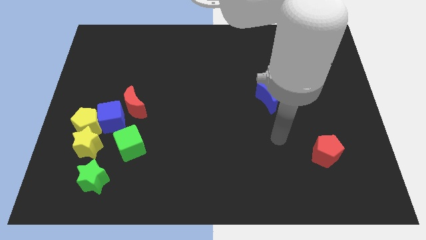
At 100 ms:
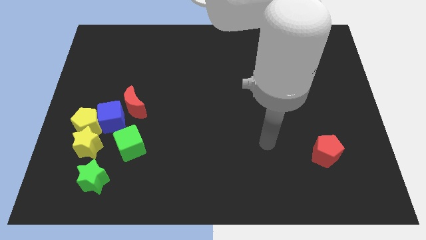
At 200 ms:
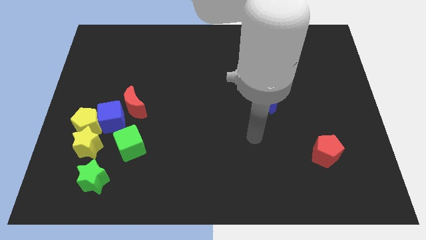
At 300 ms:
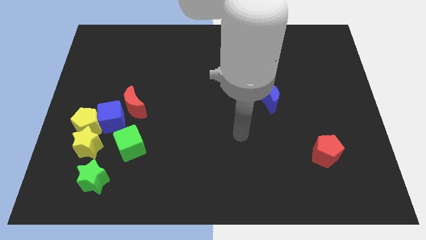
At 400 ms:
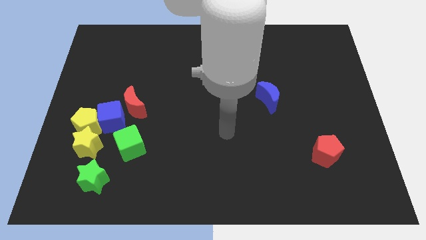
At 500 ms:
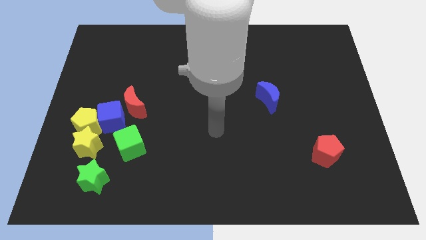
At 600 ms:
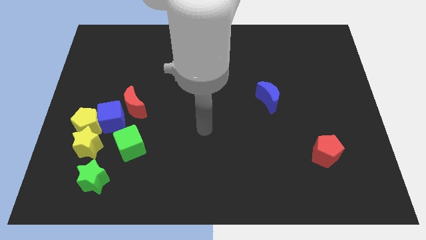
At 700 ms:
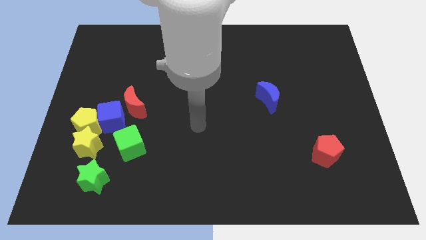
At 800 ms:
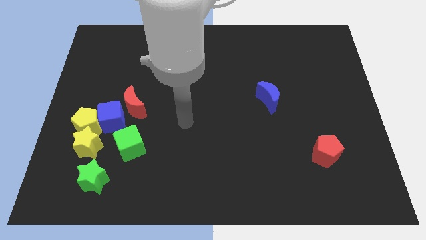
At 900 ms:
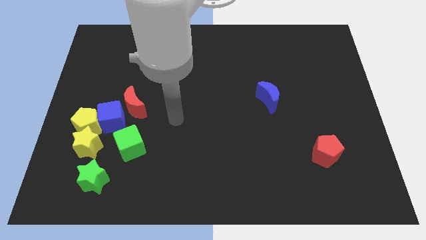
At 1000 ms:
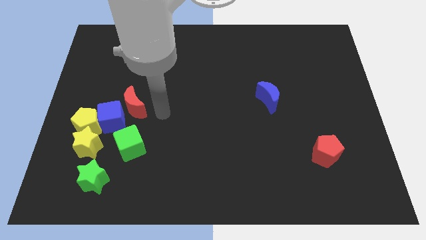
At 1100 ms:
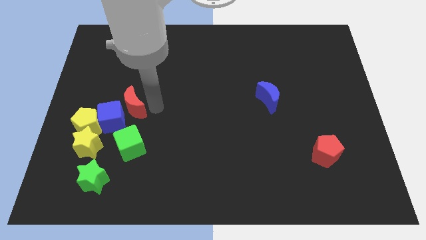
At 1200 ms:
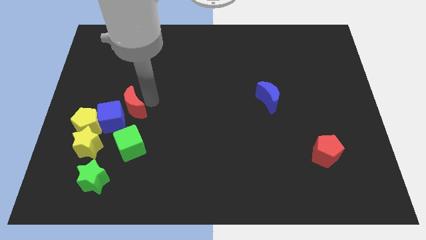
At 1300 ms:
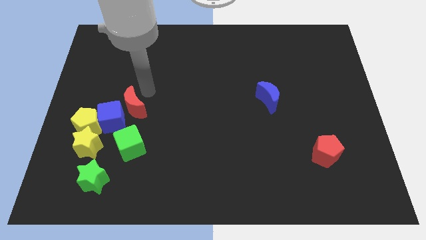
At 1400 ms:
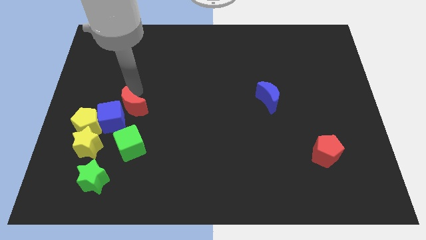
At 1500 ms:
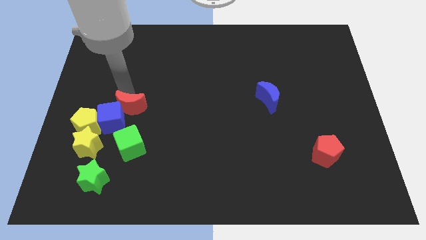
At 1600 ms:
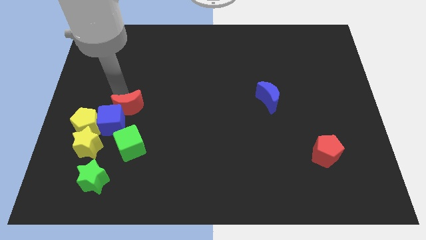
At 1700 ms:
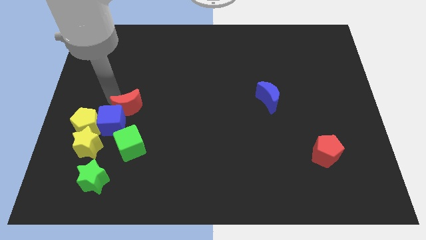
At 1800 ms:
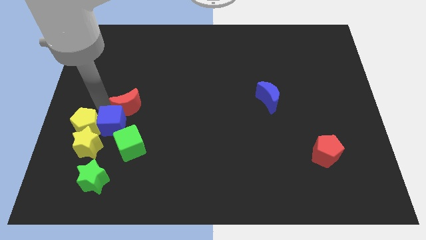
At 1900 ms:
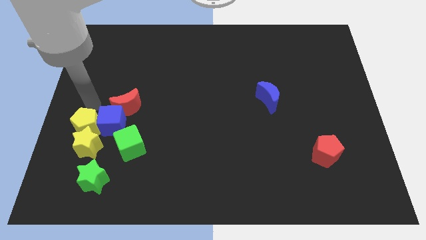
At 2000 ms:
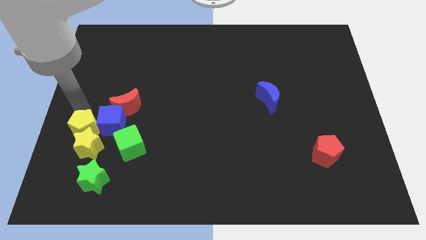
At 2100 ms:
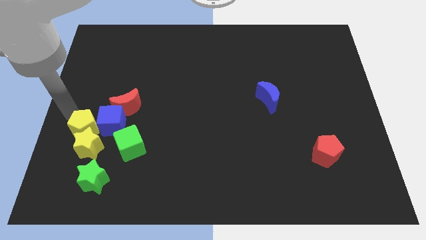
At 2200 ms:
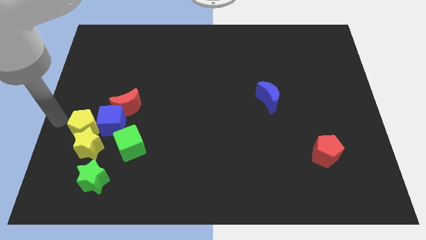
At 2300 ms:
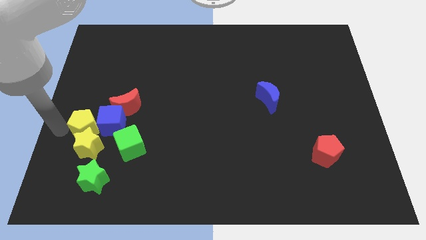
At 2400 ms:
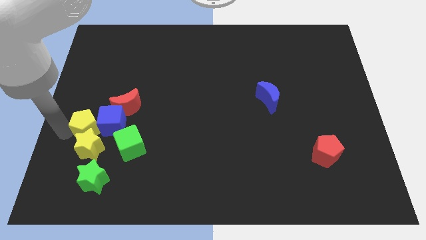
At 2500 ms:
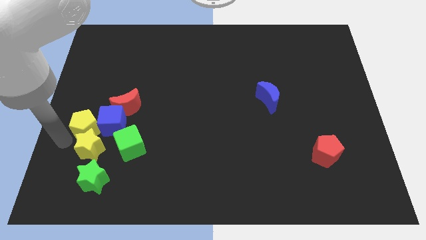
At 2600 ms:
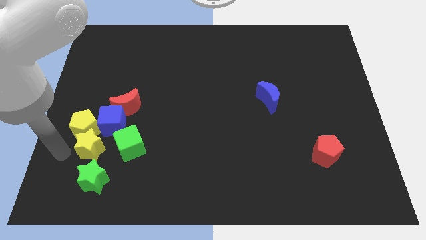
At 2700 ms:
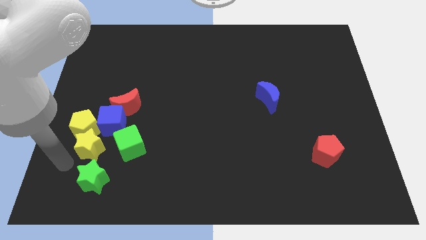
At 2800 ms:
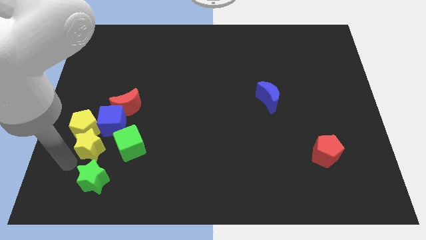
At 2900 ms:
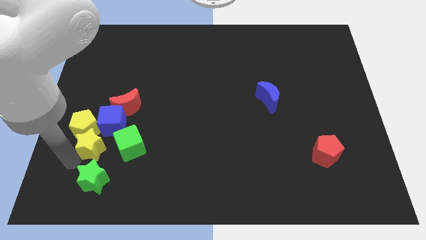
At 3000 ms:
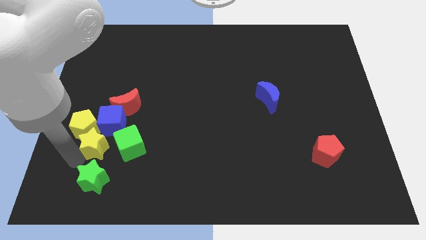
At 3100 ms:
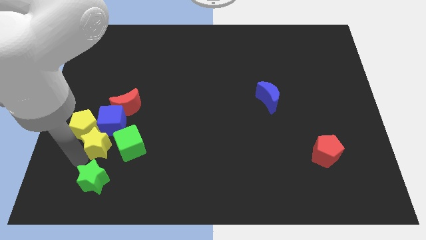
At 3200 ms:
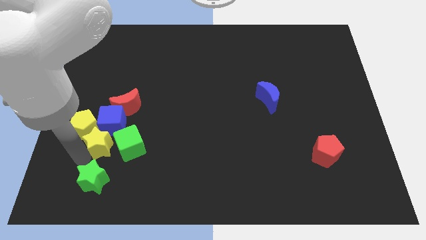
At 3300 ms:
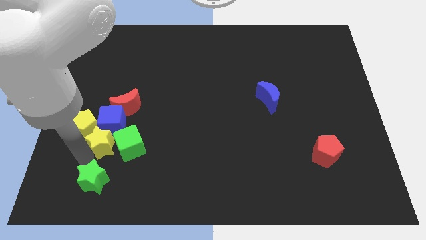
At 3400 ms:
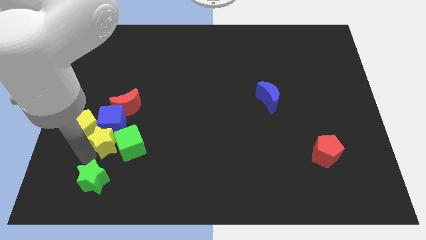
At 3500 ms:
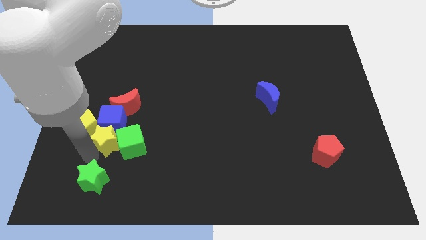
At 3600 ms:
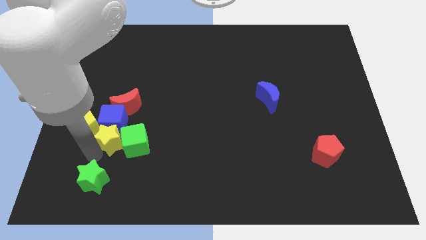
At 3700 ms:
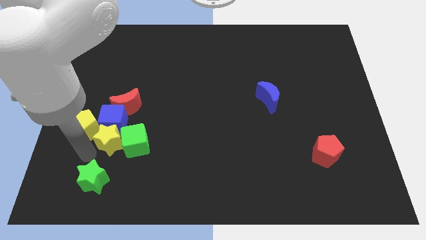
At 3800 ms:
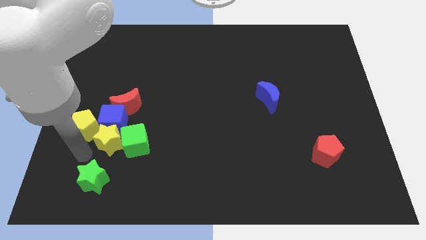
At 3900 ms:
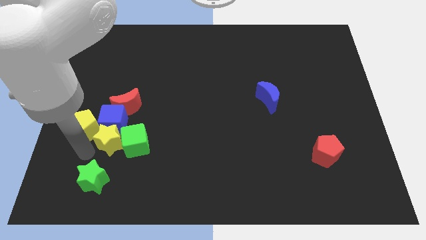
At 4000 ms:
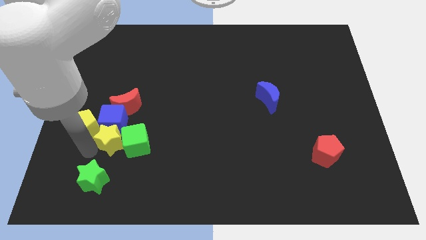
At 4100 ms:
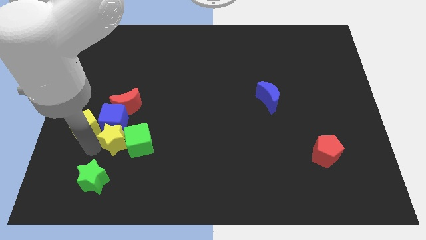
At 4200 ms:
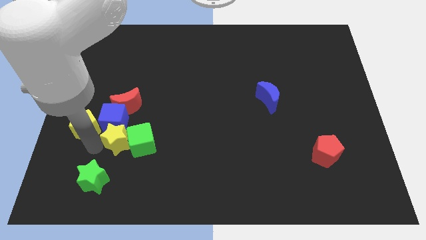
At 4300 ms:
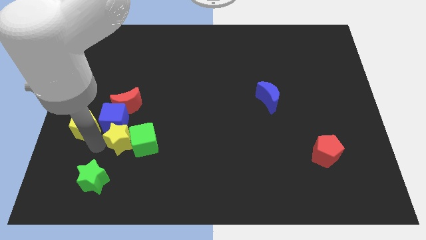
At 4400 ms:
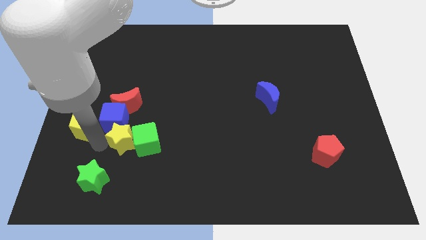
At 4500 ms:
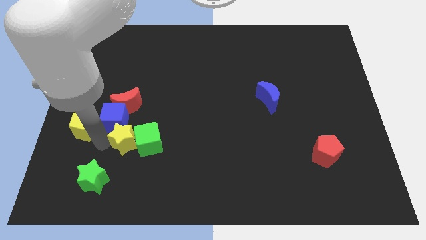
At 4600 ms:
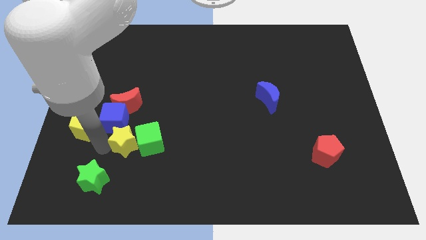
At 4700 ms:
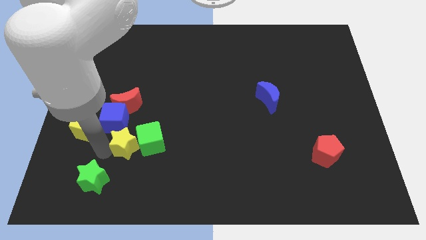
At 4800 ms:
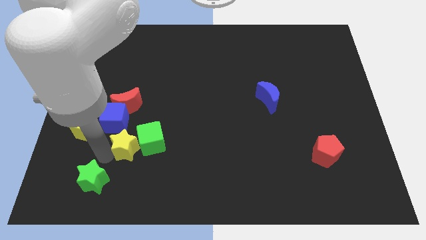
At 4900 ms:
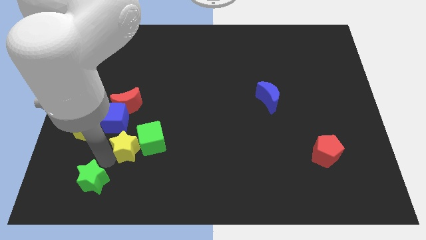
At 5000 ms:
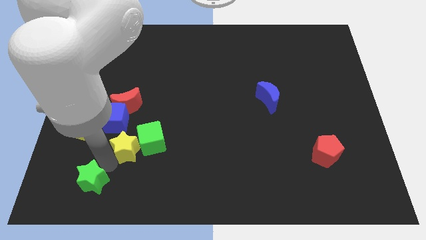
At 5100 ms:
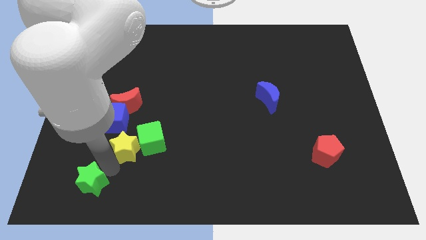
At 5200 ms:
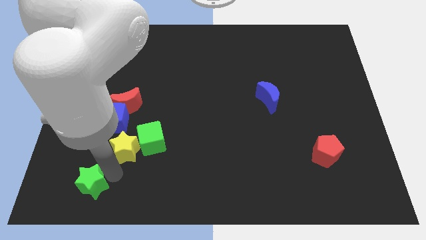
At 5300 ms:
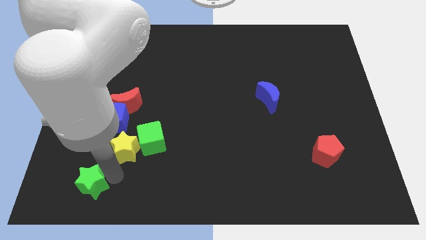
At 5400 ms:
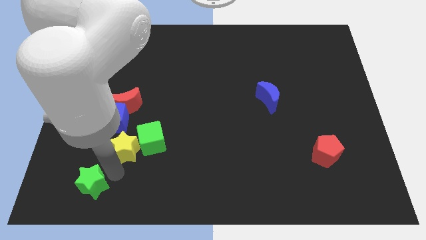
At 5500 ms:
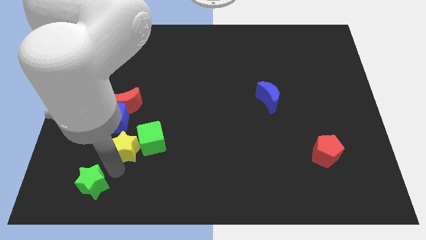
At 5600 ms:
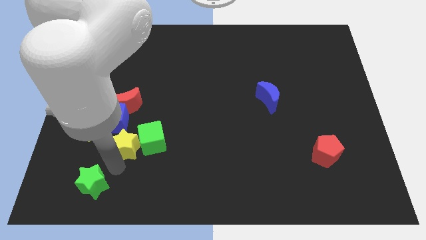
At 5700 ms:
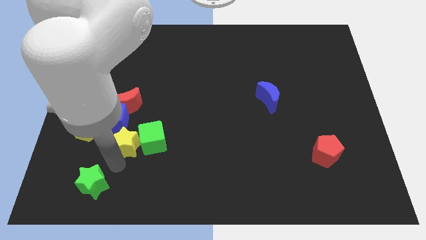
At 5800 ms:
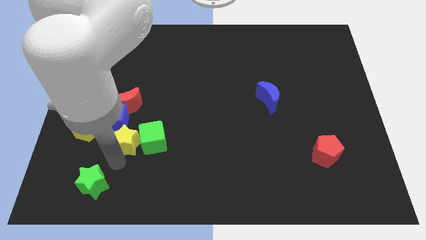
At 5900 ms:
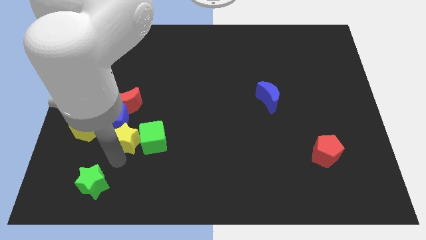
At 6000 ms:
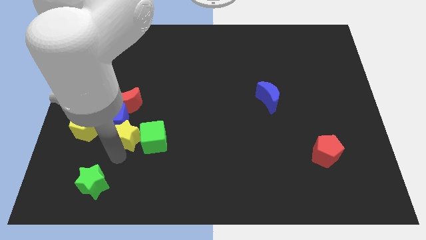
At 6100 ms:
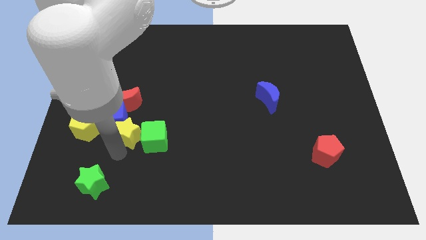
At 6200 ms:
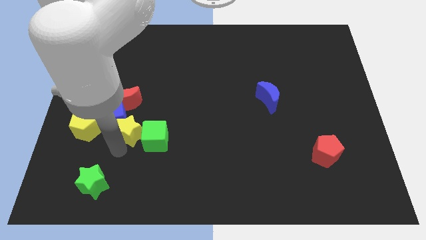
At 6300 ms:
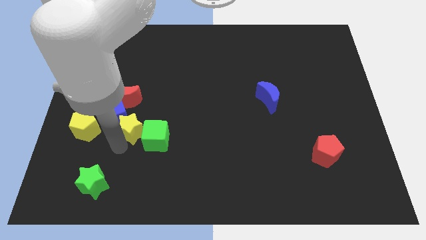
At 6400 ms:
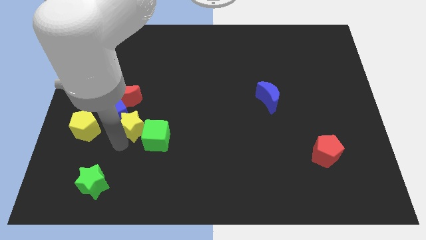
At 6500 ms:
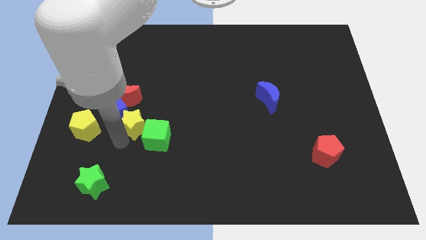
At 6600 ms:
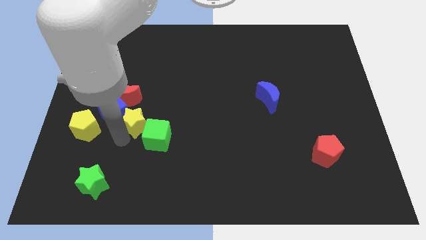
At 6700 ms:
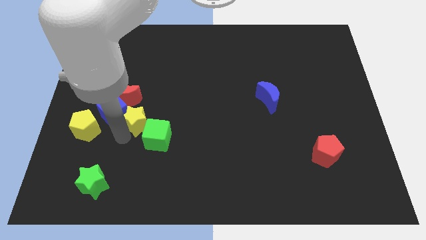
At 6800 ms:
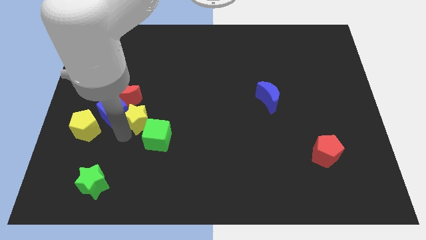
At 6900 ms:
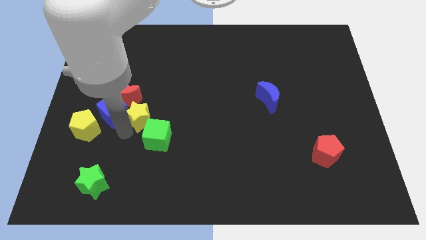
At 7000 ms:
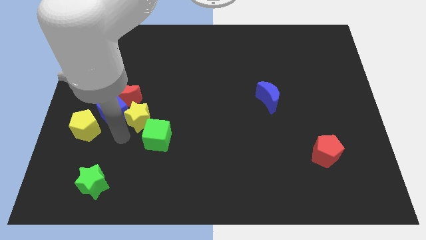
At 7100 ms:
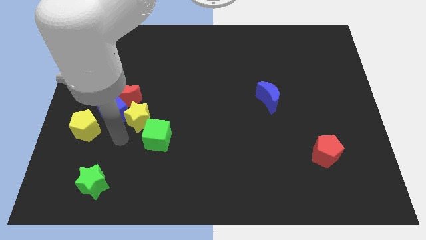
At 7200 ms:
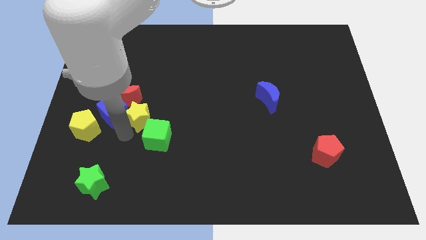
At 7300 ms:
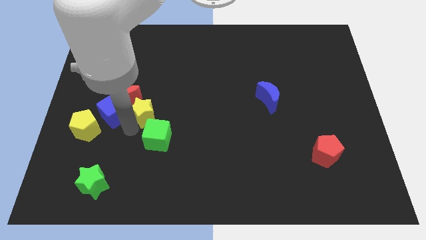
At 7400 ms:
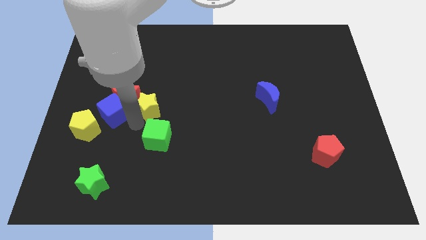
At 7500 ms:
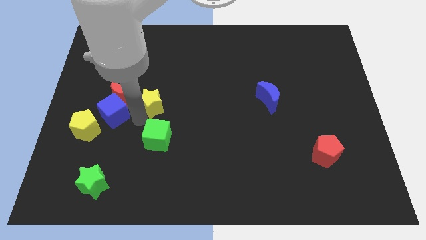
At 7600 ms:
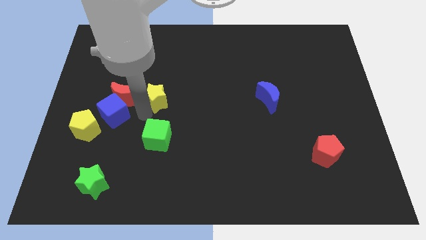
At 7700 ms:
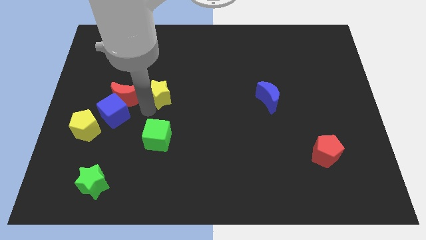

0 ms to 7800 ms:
push the yellow star diagonally up and to the right
